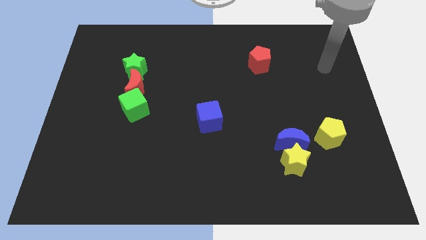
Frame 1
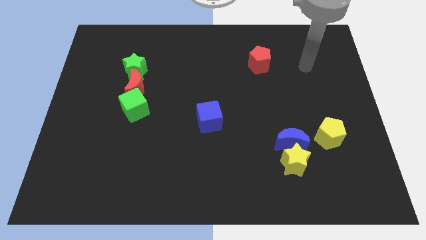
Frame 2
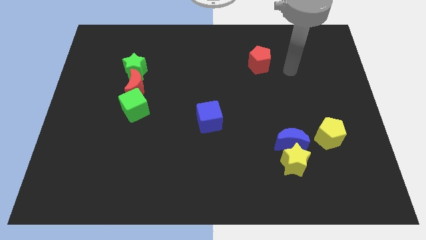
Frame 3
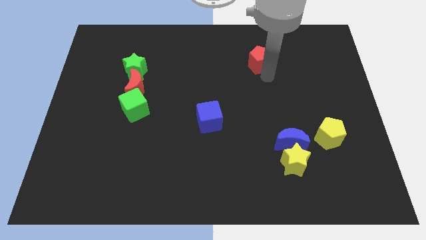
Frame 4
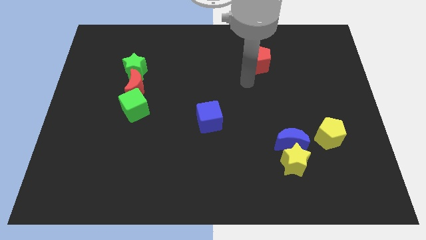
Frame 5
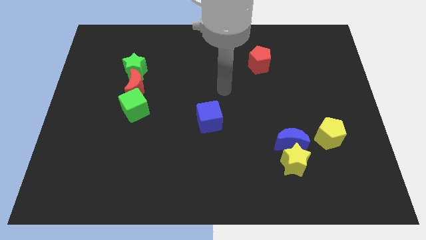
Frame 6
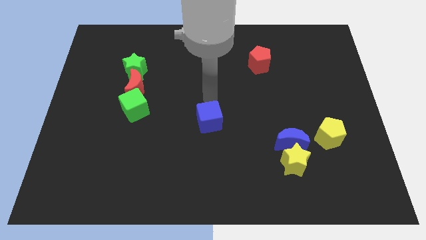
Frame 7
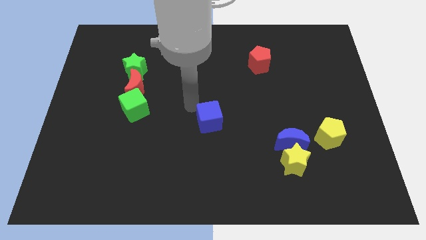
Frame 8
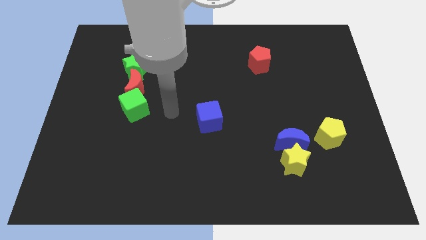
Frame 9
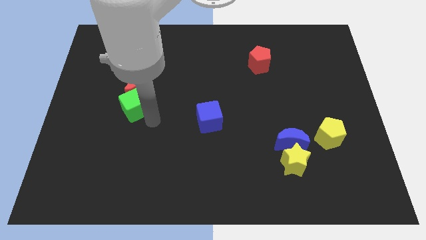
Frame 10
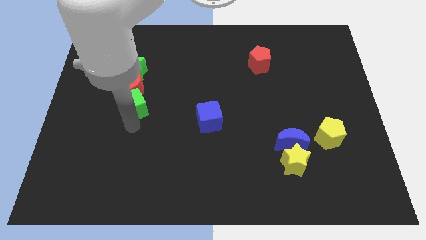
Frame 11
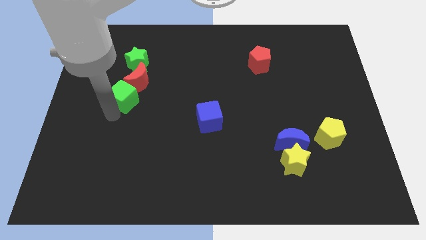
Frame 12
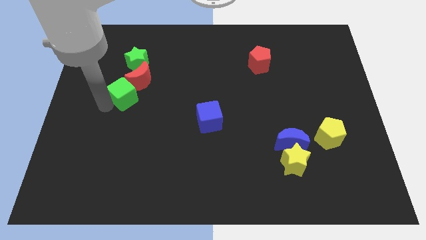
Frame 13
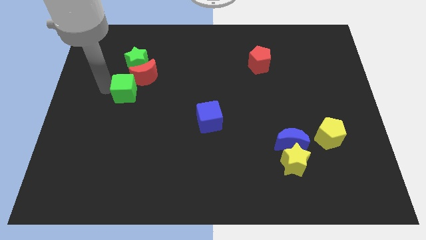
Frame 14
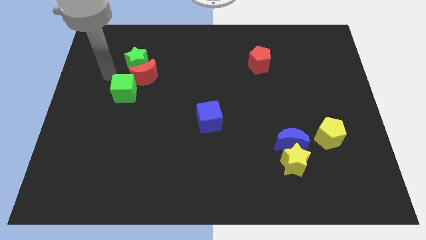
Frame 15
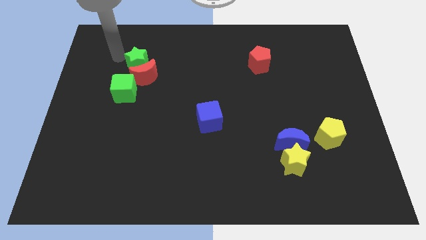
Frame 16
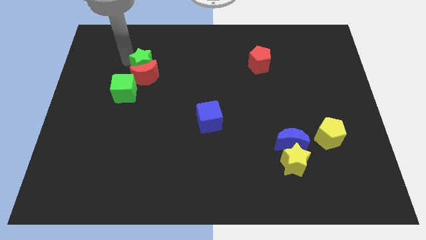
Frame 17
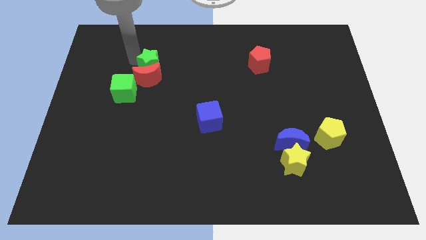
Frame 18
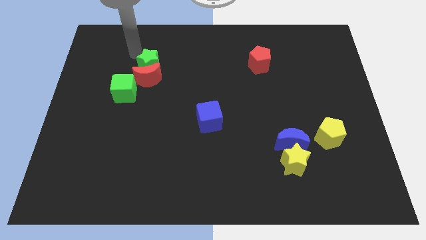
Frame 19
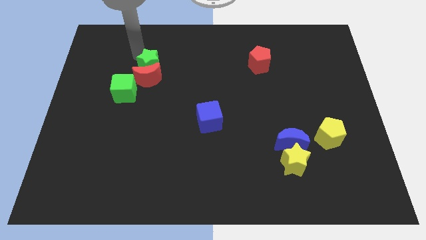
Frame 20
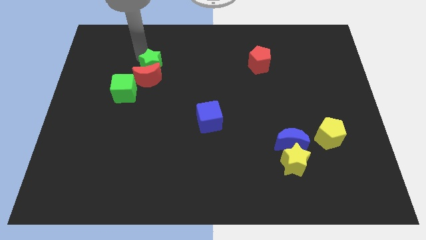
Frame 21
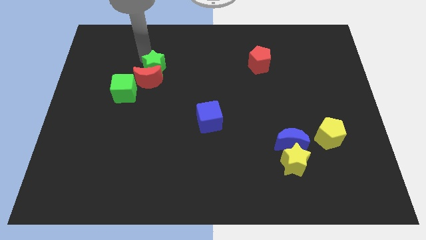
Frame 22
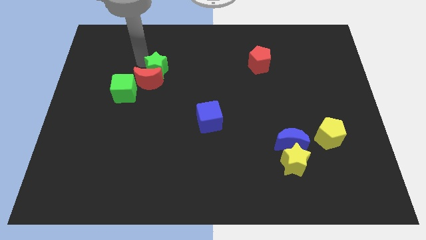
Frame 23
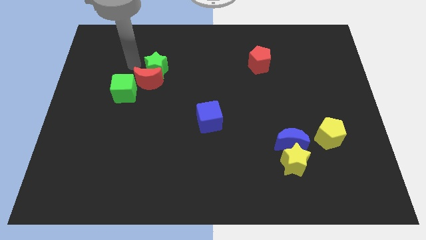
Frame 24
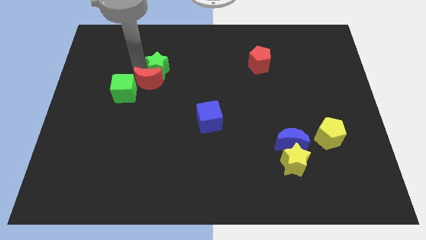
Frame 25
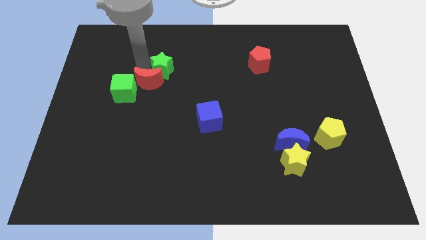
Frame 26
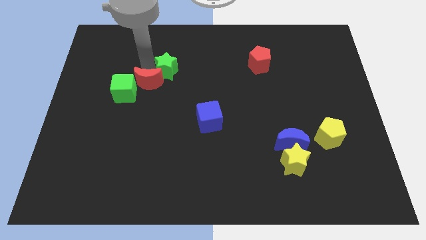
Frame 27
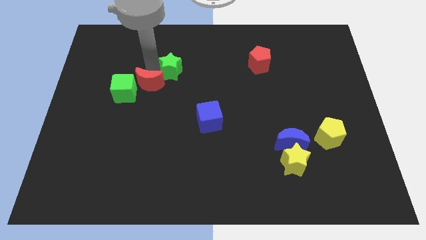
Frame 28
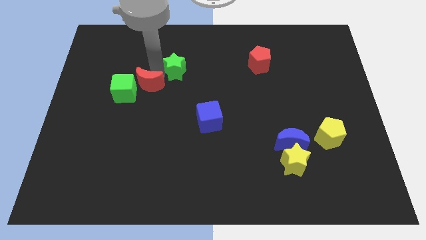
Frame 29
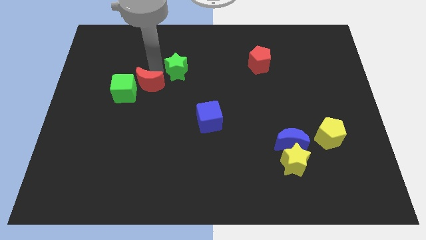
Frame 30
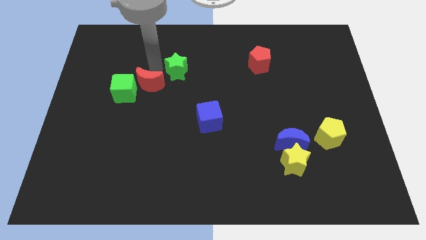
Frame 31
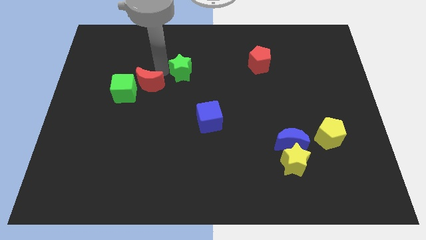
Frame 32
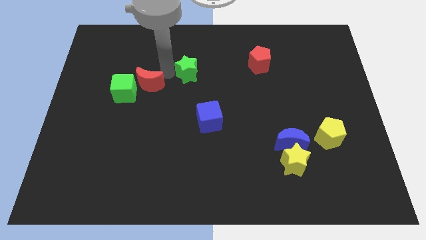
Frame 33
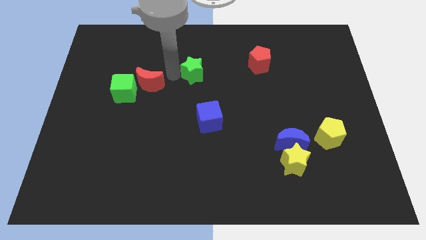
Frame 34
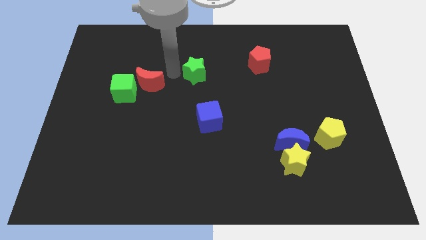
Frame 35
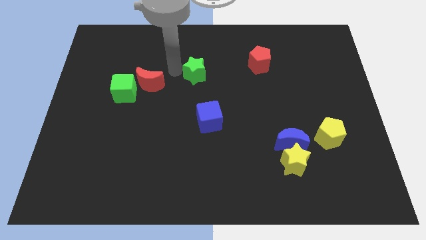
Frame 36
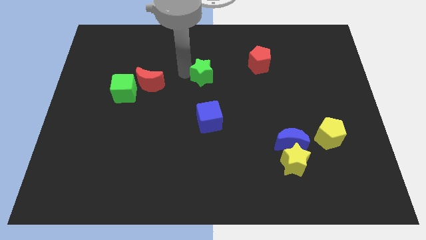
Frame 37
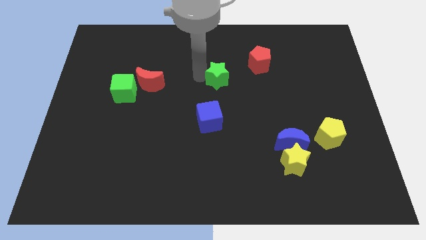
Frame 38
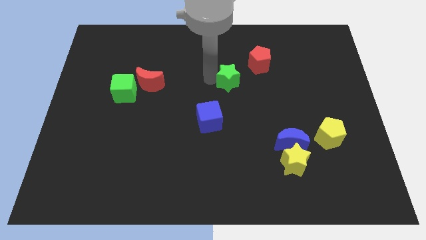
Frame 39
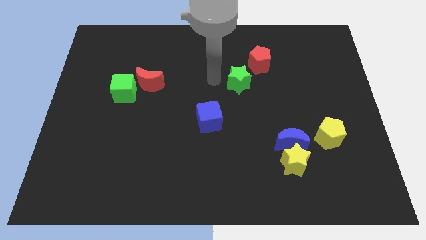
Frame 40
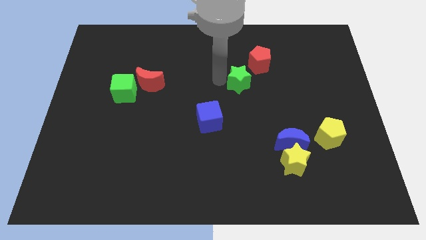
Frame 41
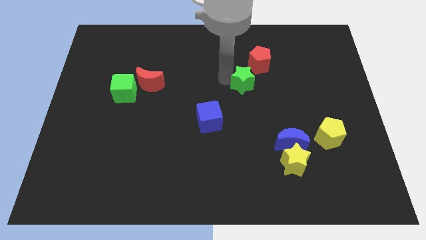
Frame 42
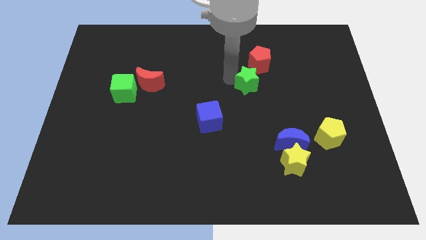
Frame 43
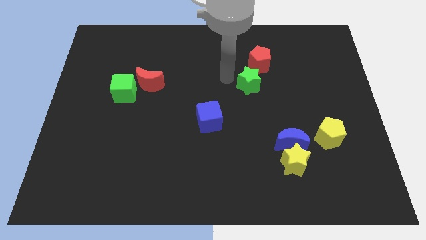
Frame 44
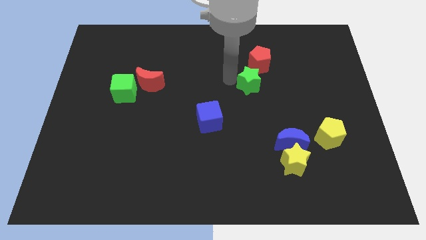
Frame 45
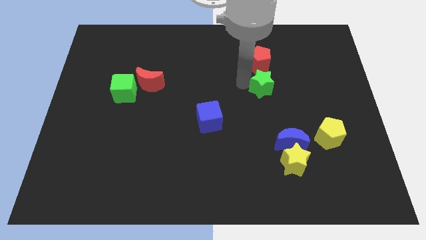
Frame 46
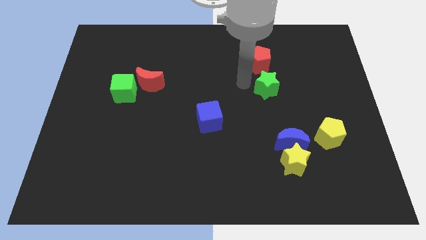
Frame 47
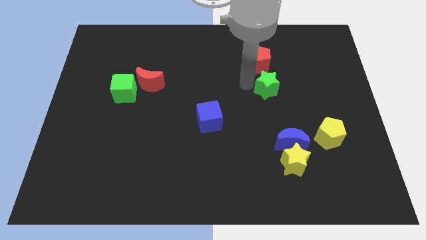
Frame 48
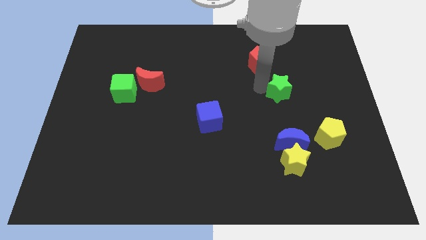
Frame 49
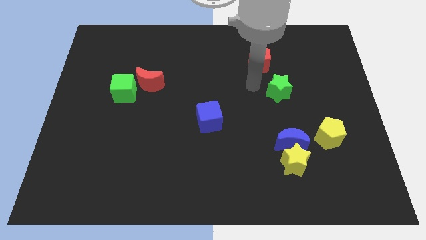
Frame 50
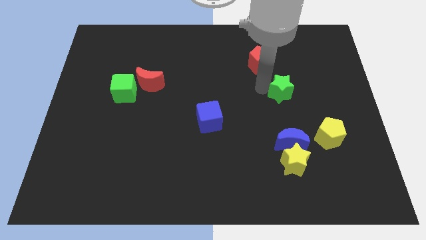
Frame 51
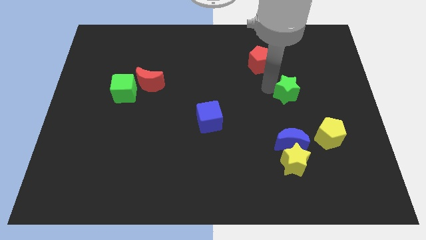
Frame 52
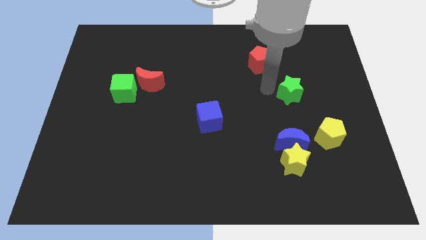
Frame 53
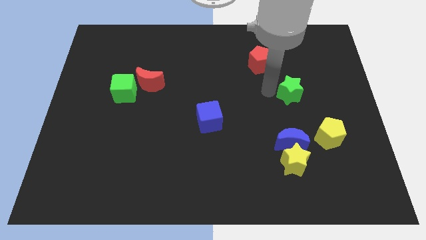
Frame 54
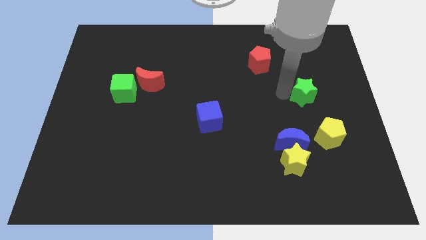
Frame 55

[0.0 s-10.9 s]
push the green star above the yellow pentagon

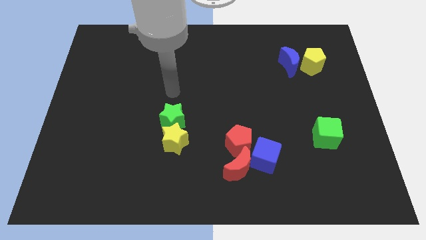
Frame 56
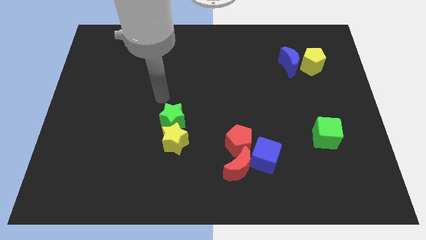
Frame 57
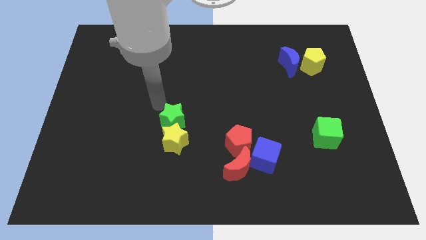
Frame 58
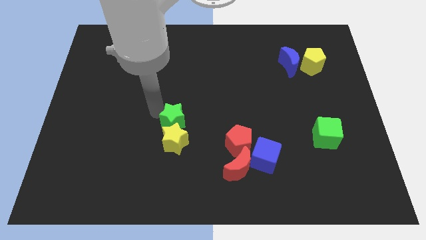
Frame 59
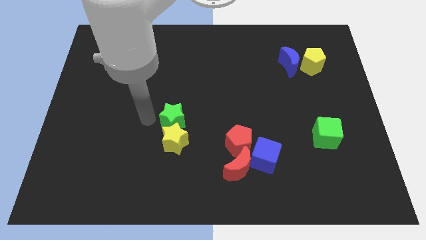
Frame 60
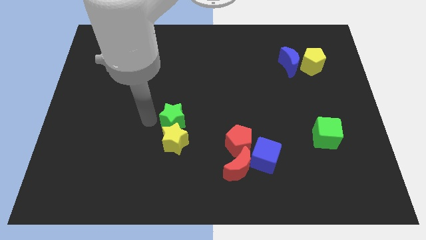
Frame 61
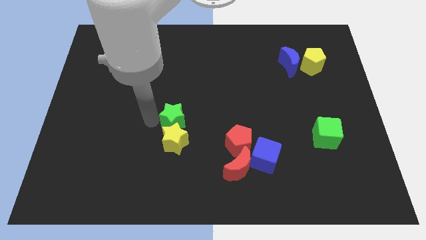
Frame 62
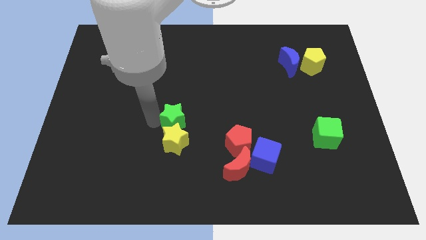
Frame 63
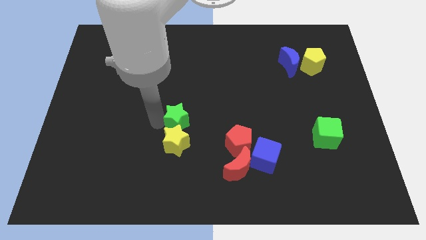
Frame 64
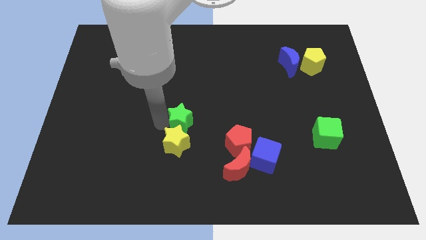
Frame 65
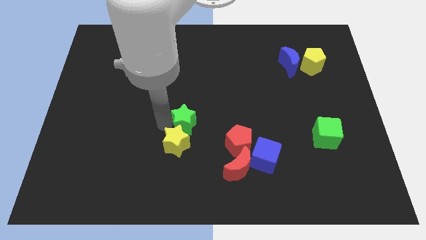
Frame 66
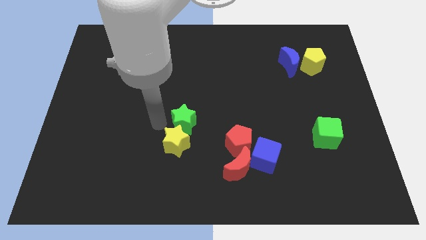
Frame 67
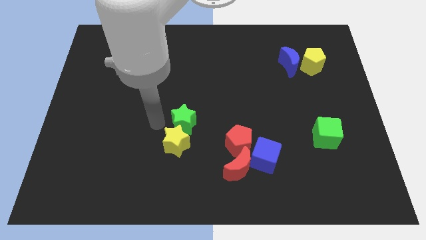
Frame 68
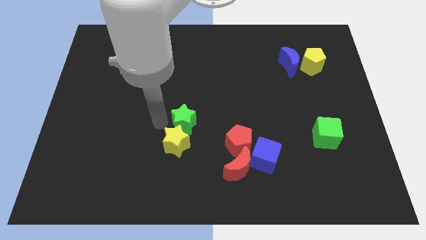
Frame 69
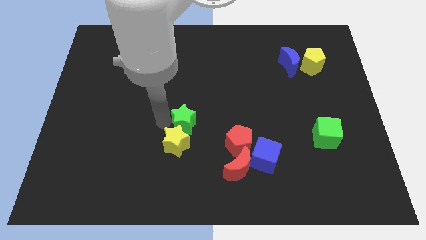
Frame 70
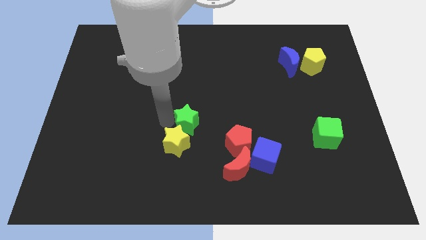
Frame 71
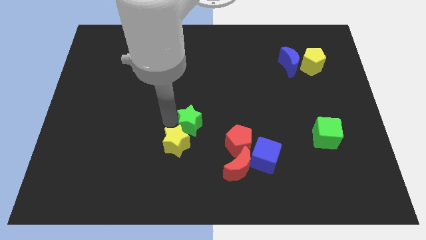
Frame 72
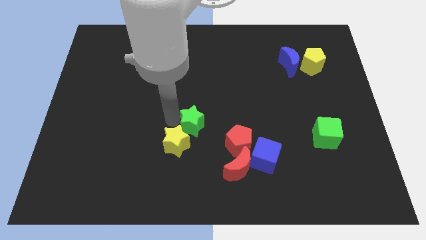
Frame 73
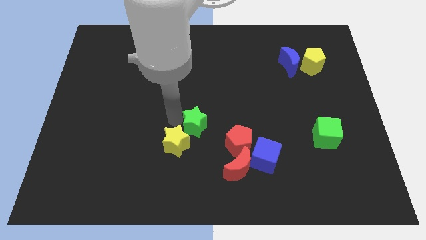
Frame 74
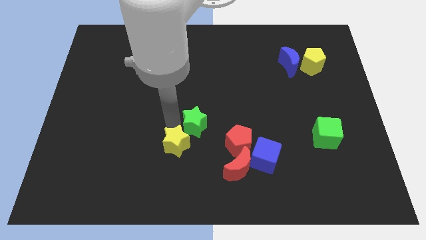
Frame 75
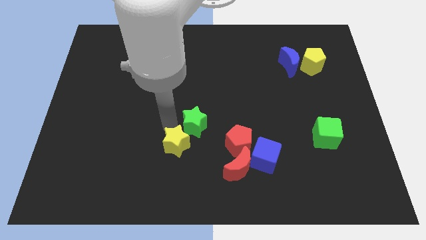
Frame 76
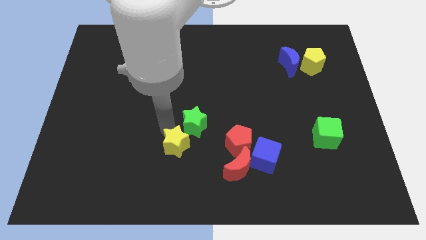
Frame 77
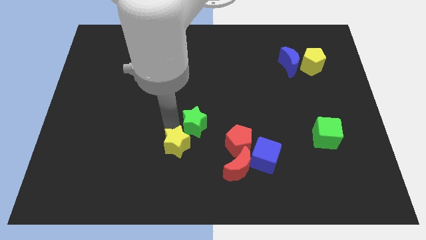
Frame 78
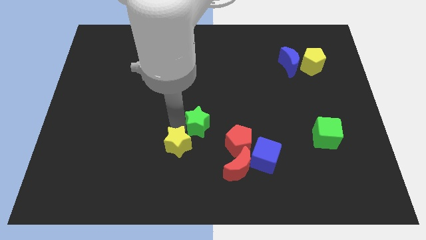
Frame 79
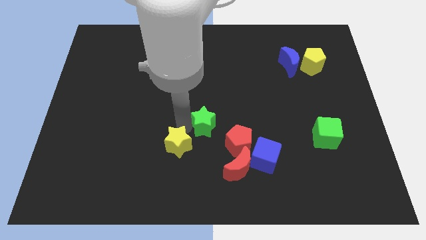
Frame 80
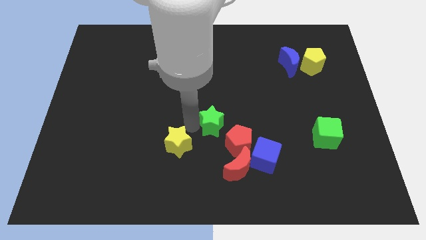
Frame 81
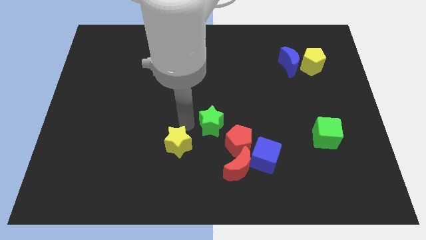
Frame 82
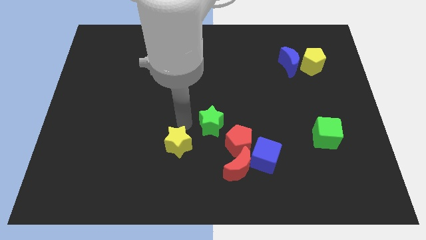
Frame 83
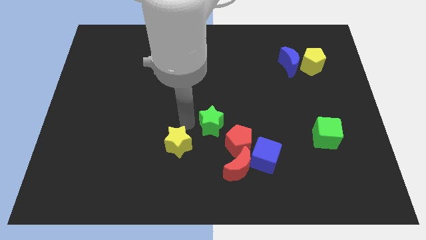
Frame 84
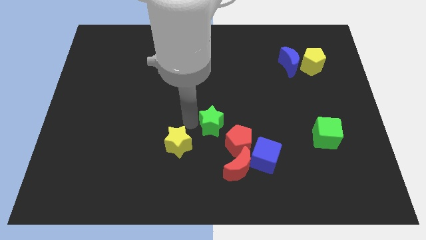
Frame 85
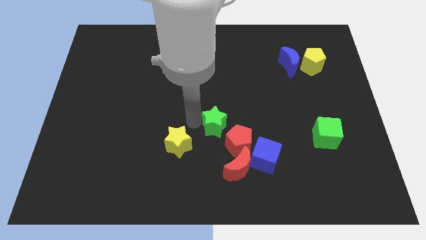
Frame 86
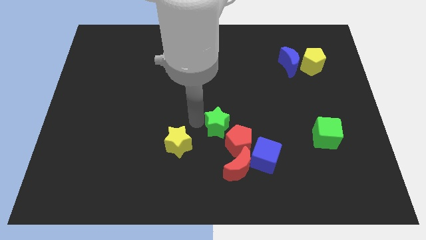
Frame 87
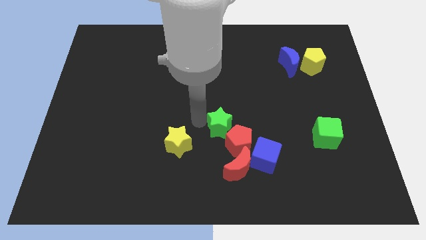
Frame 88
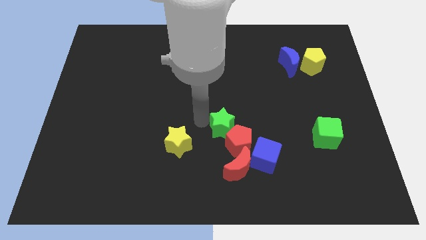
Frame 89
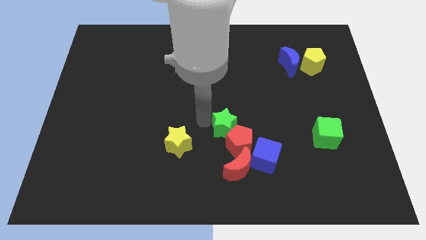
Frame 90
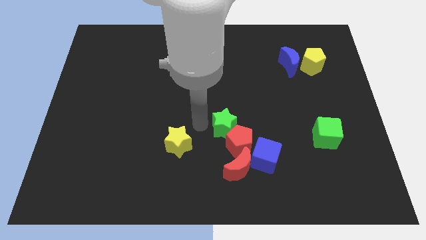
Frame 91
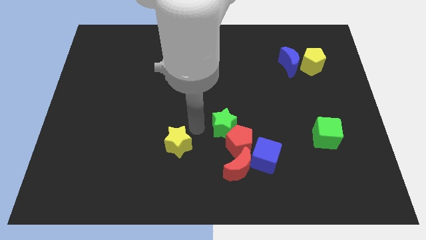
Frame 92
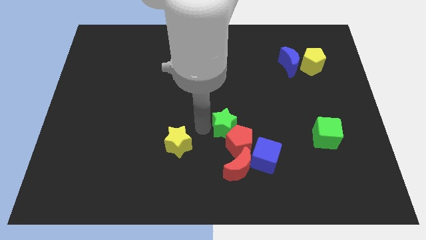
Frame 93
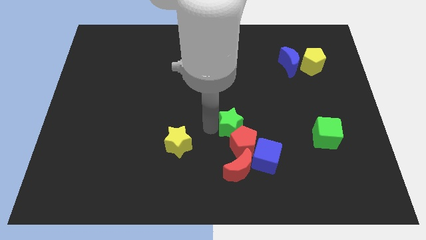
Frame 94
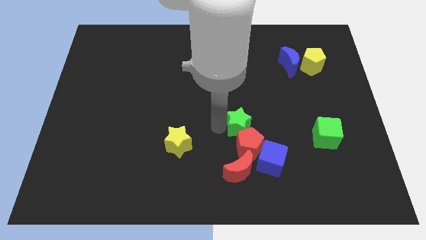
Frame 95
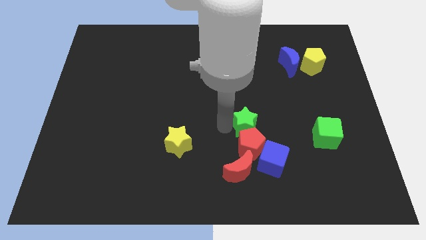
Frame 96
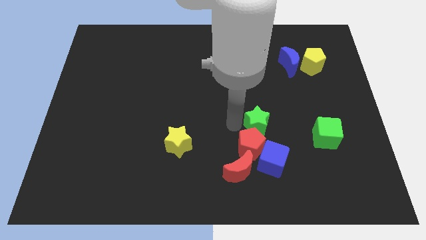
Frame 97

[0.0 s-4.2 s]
move the green star to the left side of the green cube
